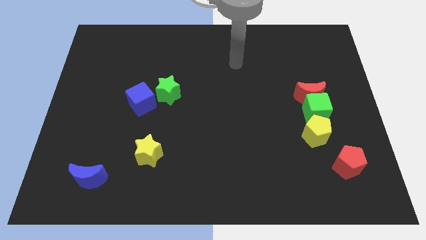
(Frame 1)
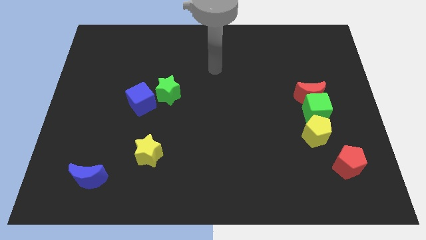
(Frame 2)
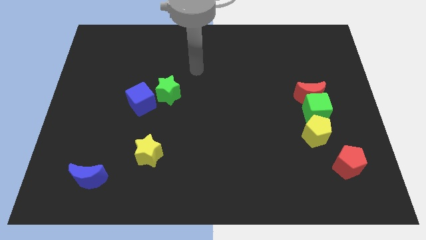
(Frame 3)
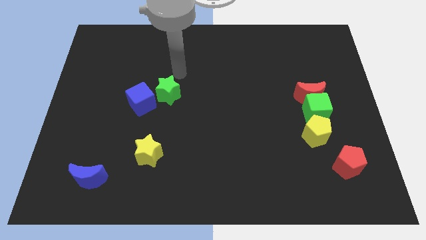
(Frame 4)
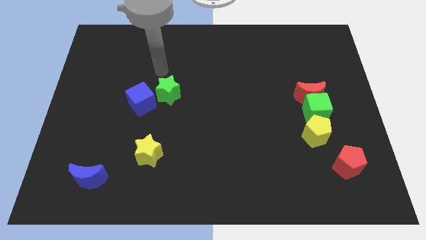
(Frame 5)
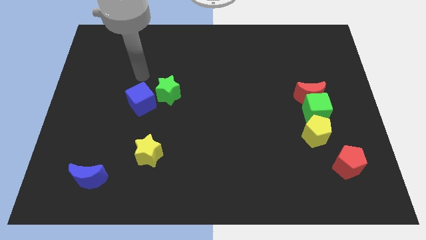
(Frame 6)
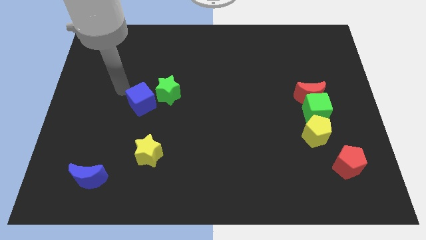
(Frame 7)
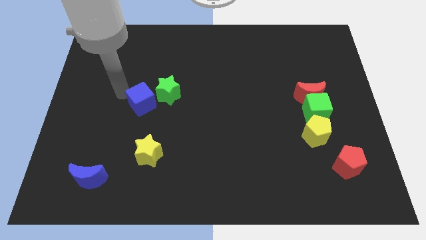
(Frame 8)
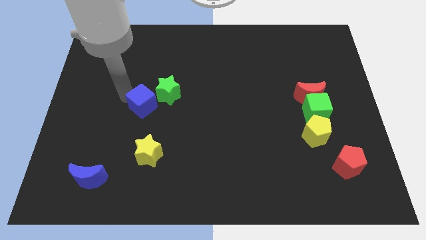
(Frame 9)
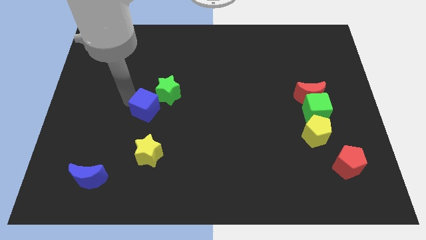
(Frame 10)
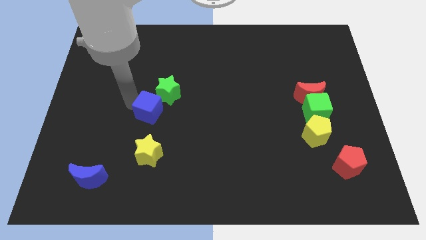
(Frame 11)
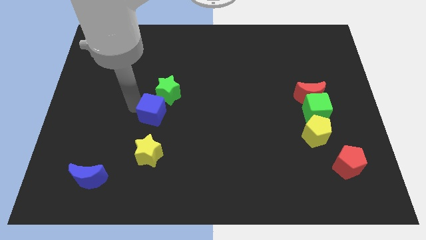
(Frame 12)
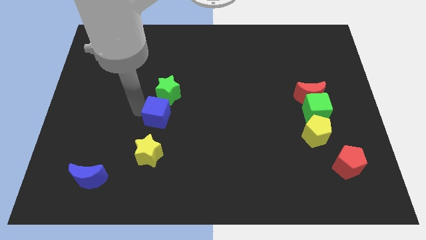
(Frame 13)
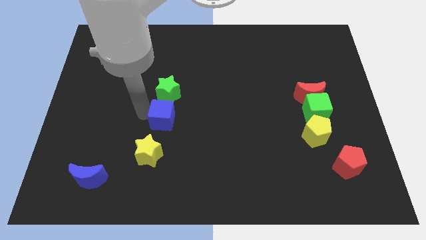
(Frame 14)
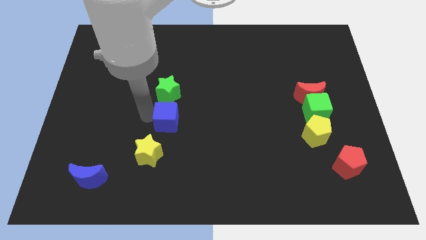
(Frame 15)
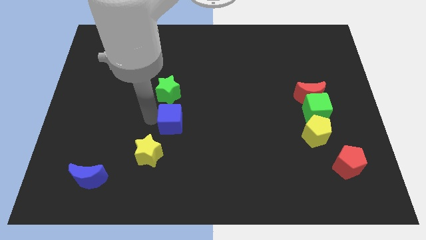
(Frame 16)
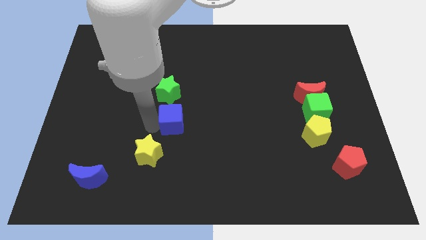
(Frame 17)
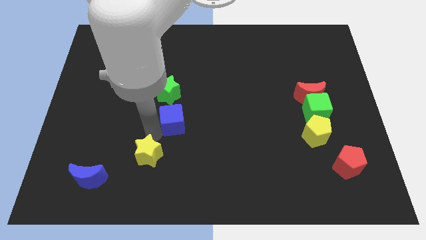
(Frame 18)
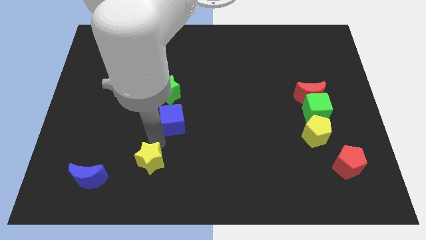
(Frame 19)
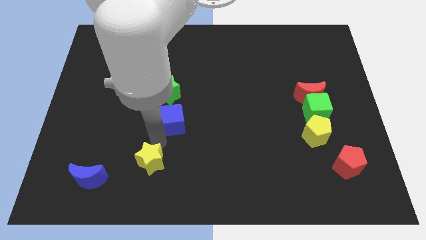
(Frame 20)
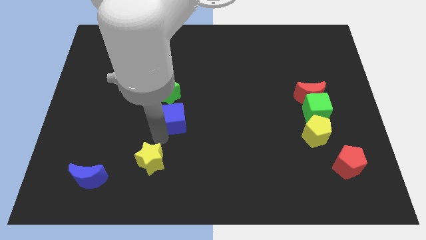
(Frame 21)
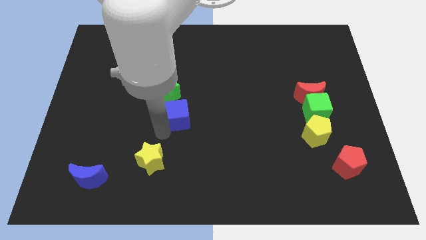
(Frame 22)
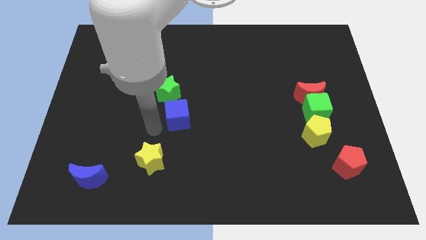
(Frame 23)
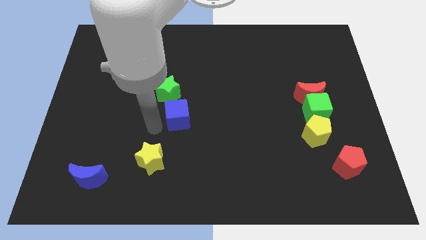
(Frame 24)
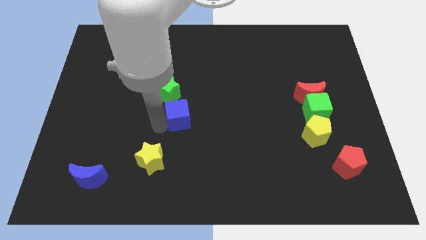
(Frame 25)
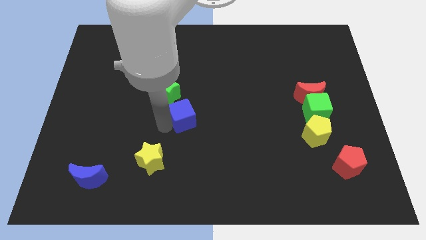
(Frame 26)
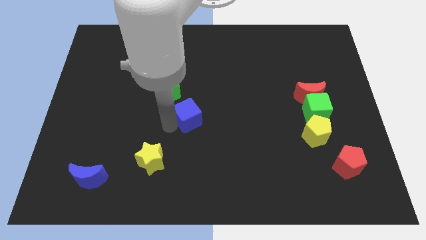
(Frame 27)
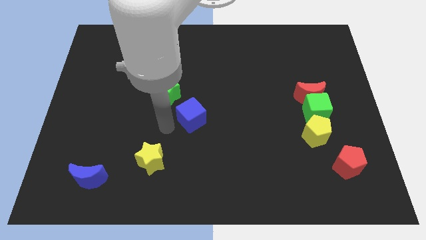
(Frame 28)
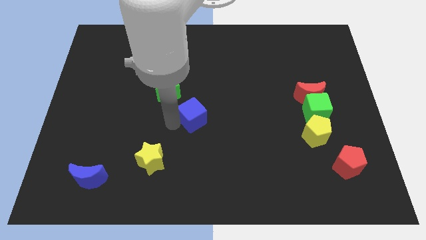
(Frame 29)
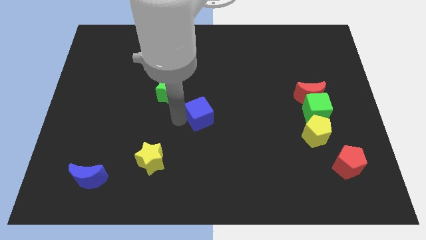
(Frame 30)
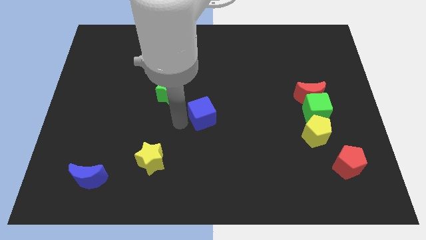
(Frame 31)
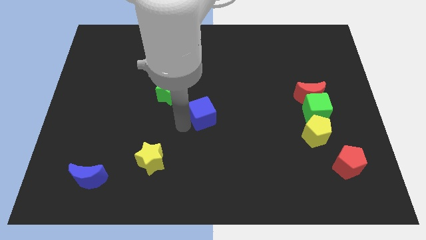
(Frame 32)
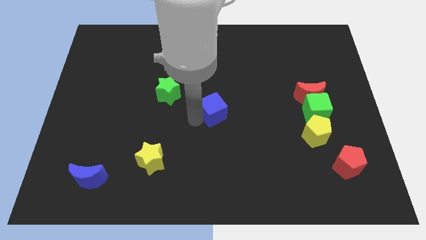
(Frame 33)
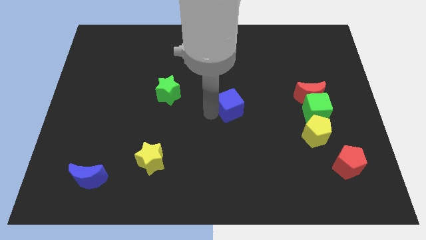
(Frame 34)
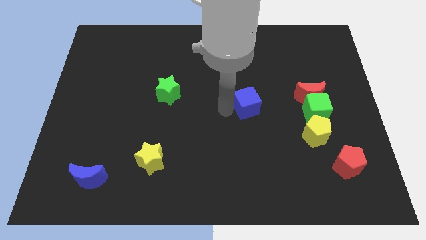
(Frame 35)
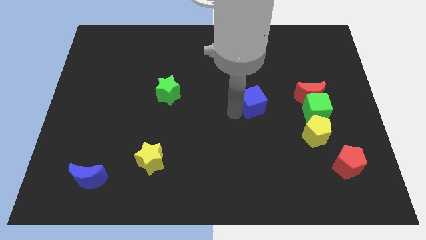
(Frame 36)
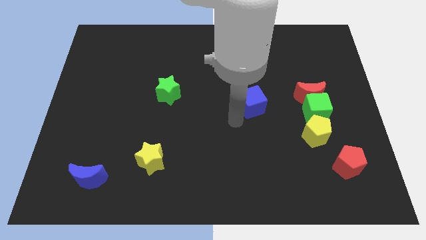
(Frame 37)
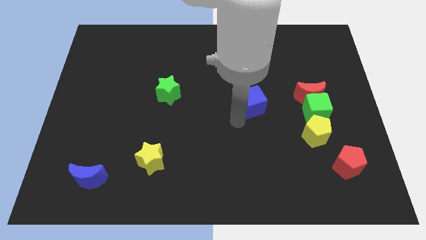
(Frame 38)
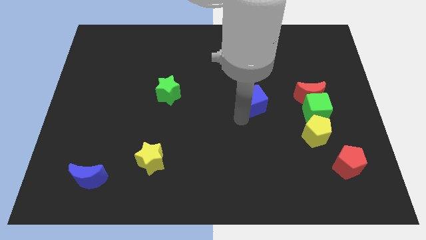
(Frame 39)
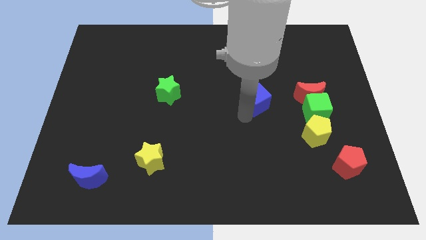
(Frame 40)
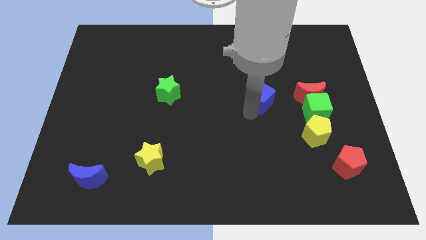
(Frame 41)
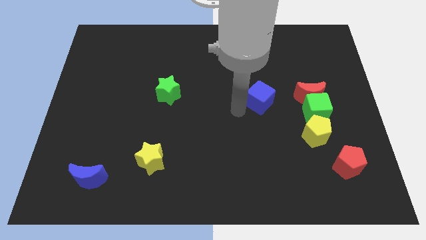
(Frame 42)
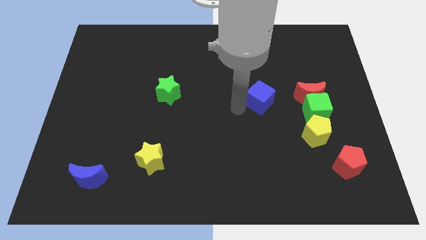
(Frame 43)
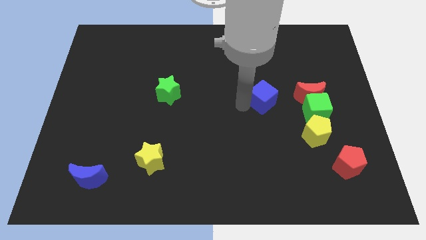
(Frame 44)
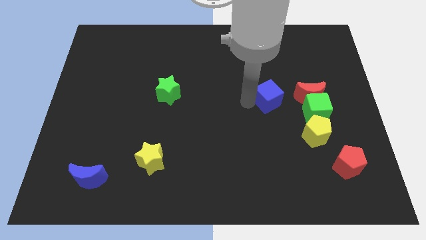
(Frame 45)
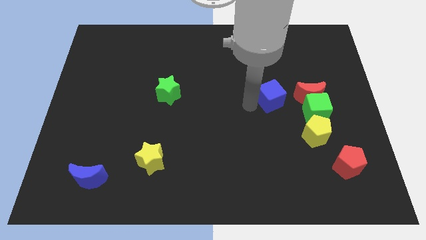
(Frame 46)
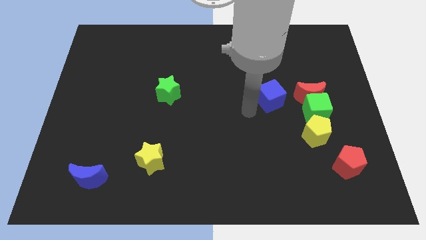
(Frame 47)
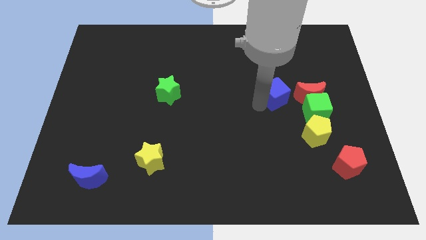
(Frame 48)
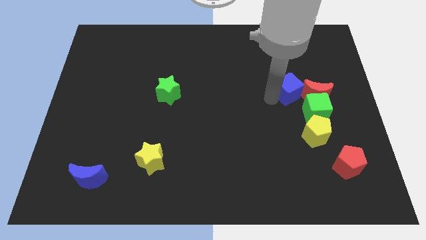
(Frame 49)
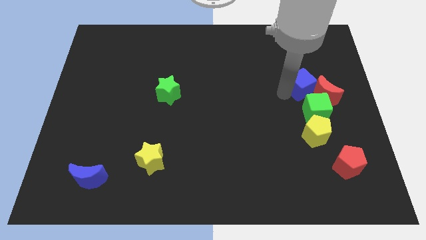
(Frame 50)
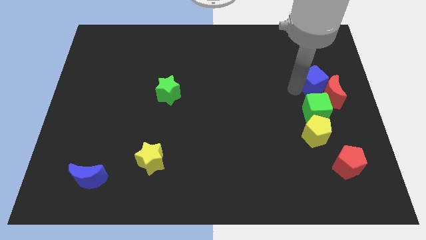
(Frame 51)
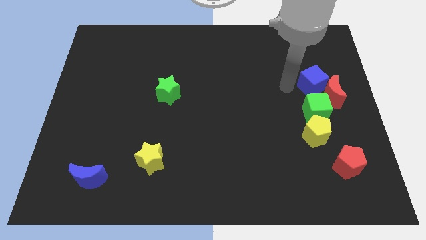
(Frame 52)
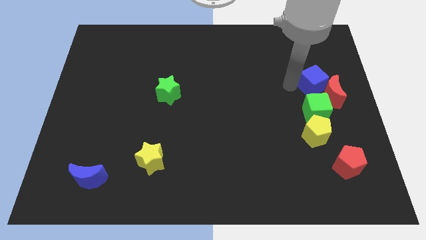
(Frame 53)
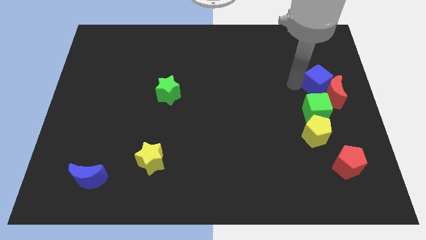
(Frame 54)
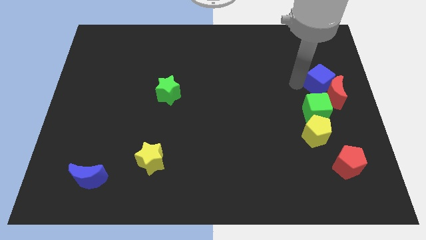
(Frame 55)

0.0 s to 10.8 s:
put the blue cube to the right side
